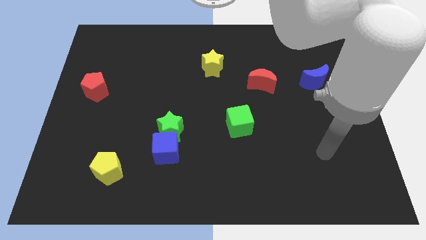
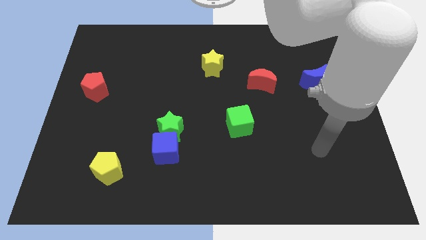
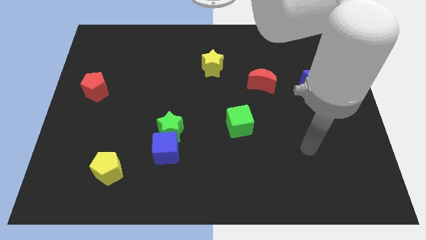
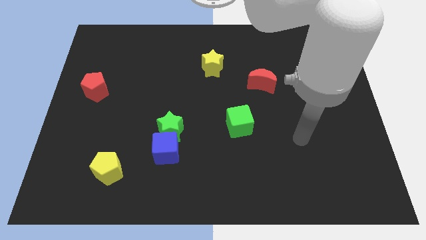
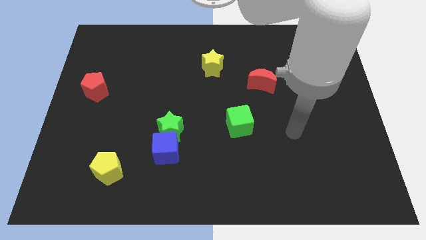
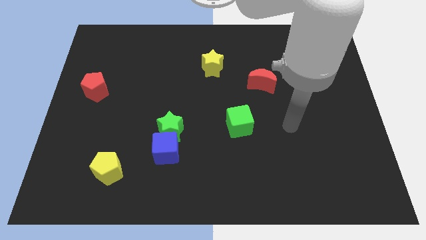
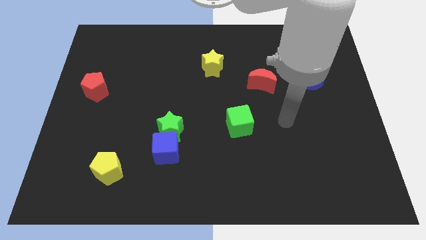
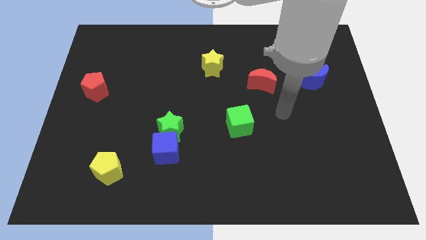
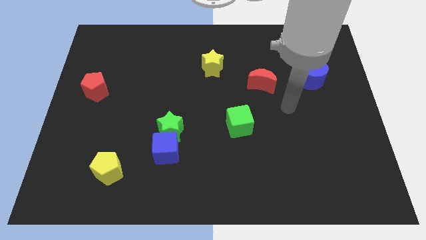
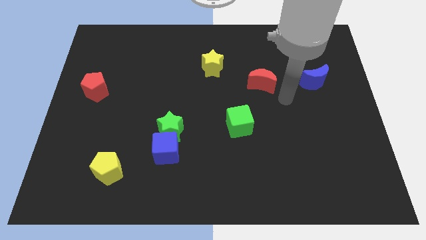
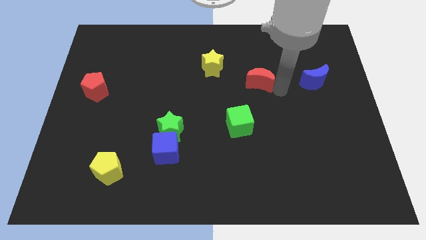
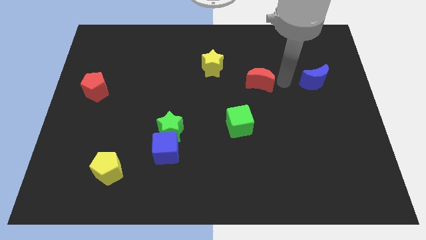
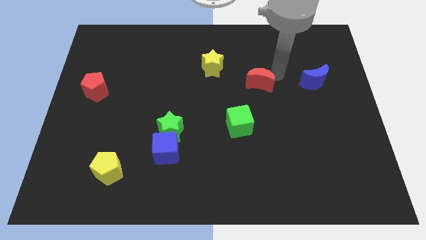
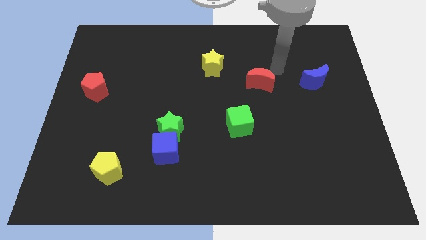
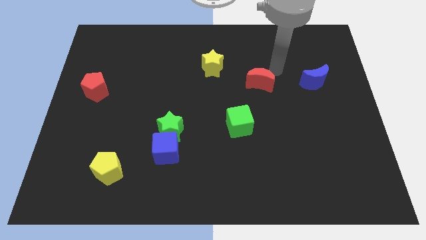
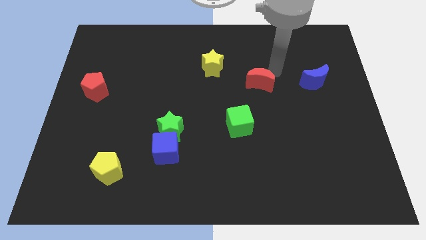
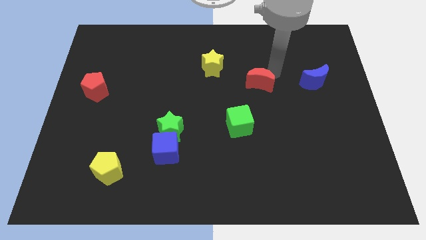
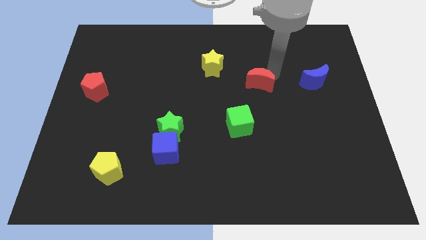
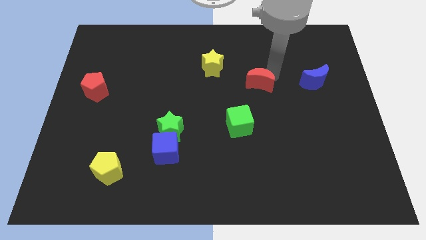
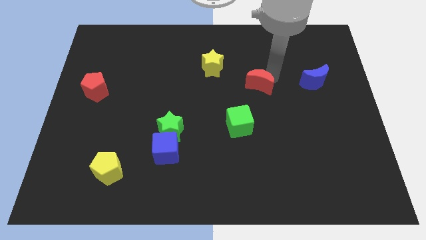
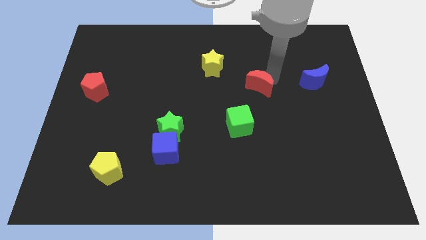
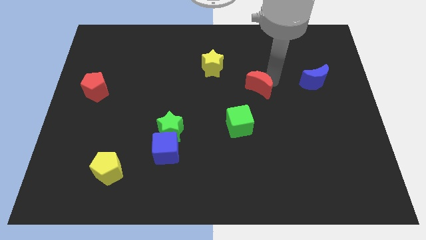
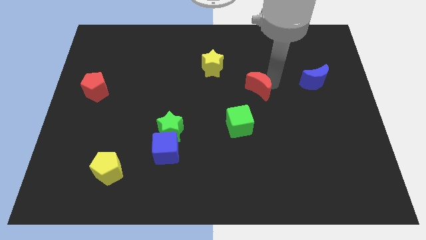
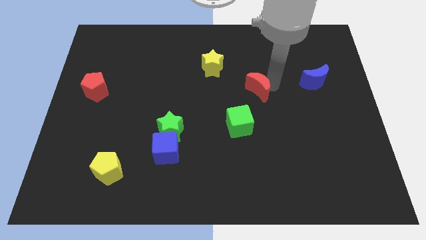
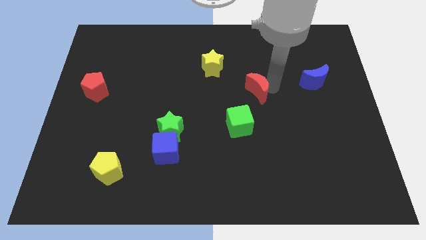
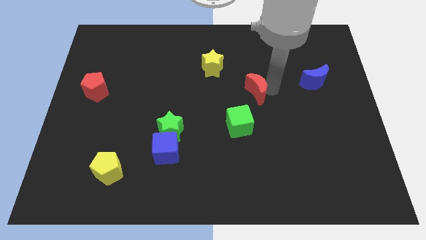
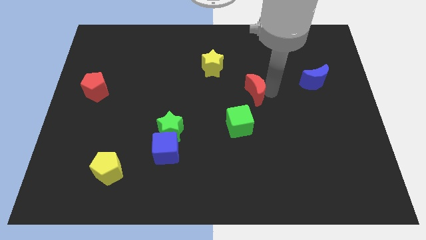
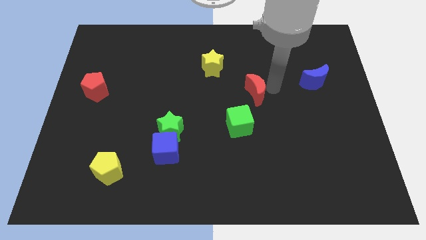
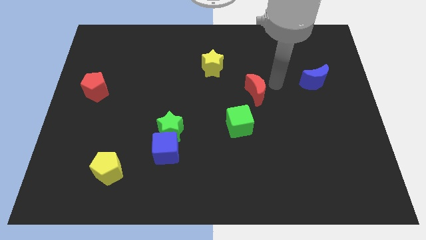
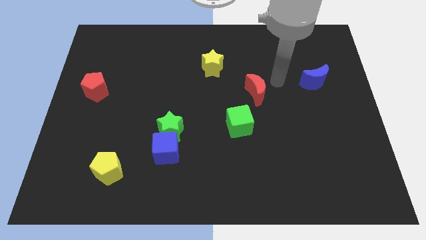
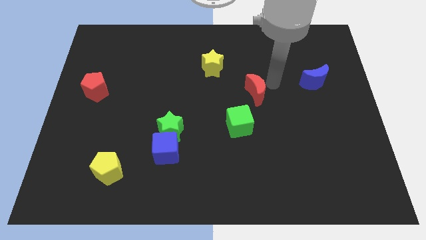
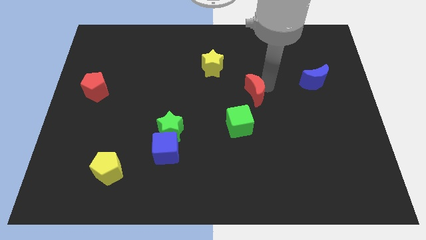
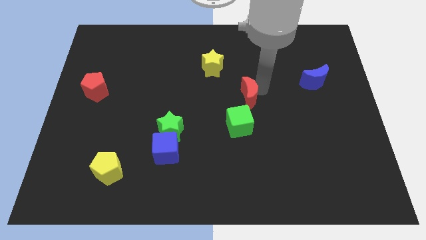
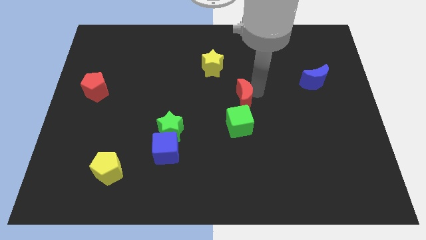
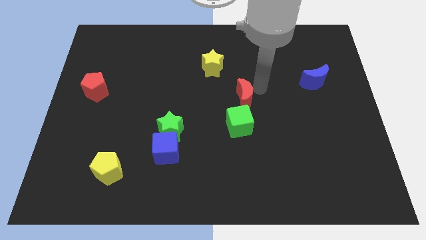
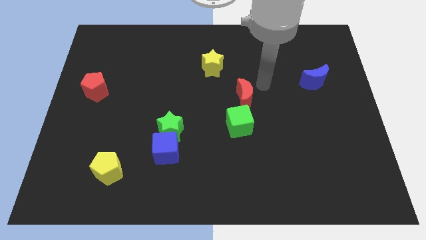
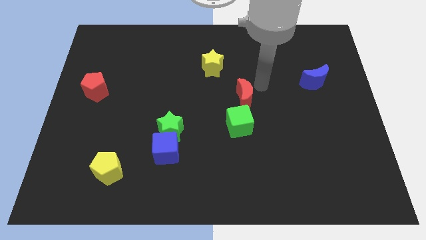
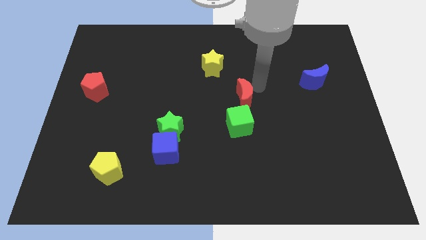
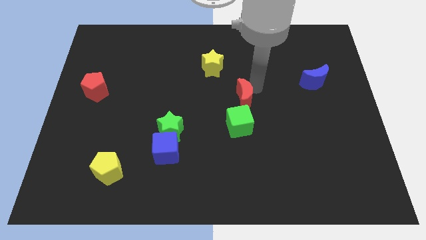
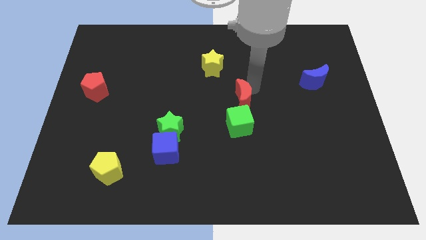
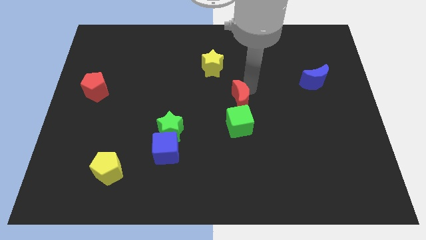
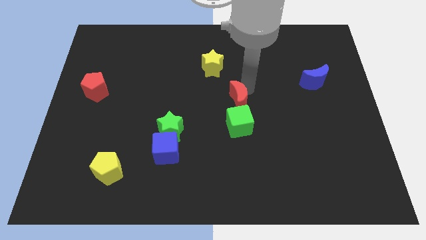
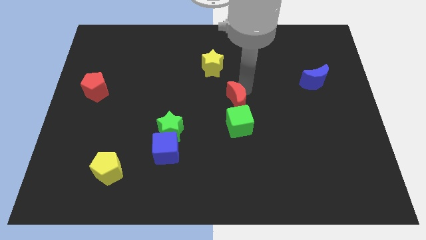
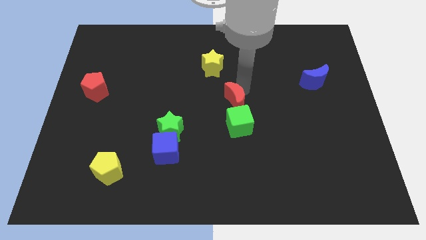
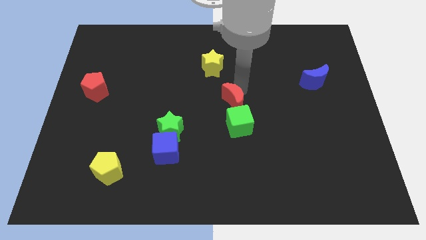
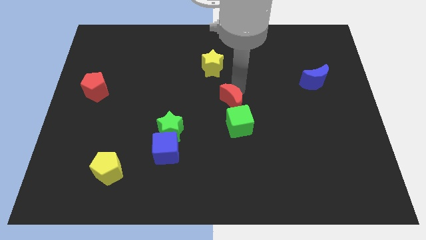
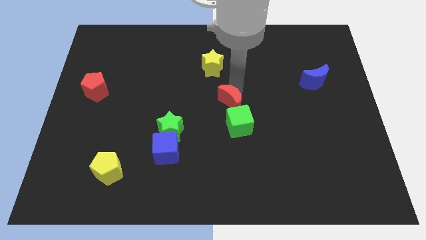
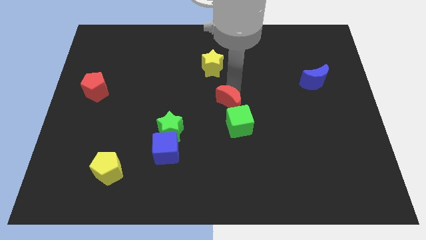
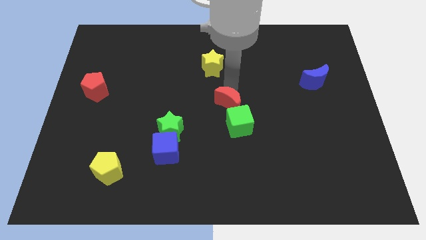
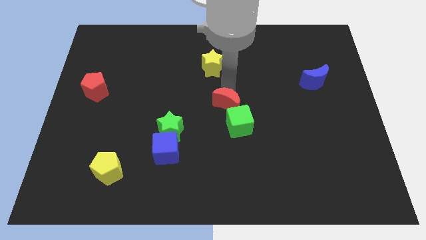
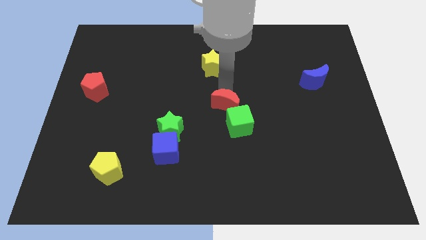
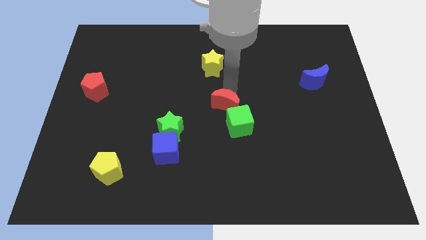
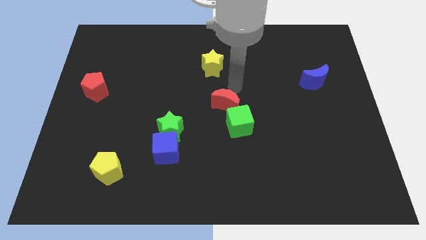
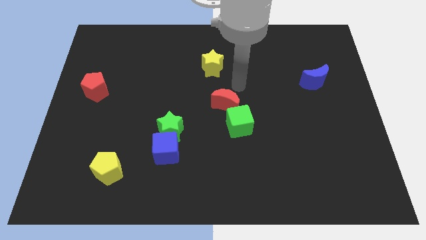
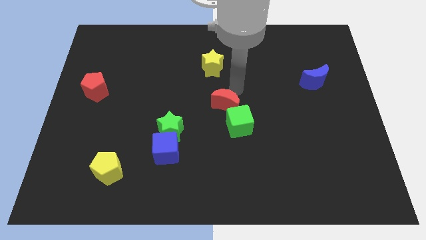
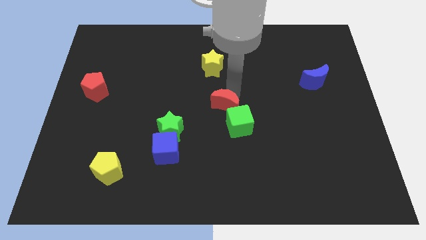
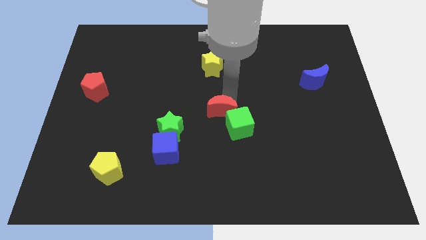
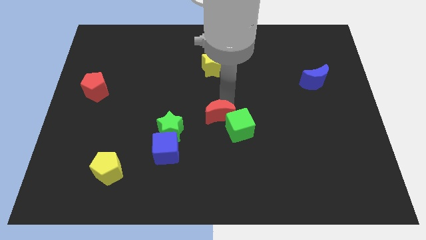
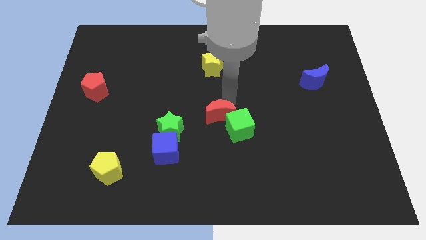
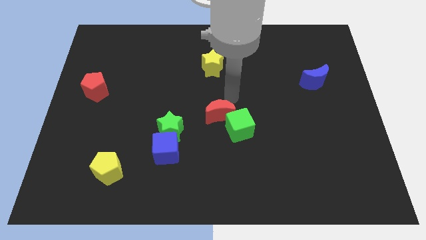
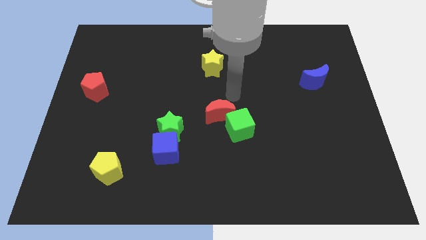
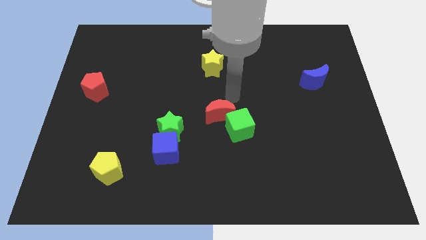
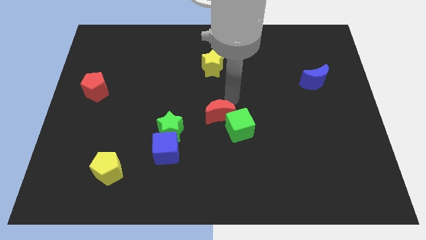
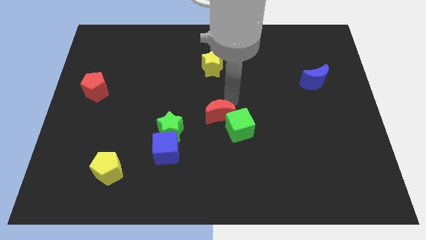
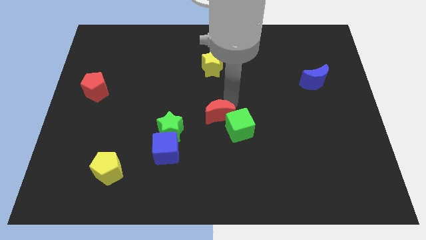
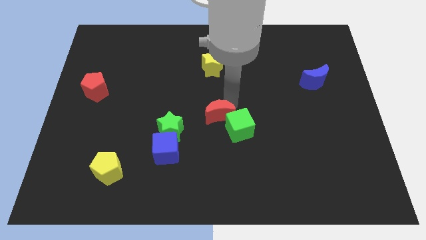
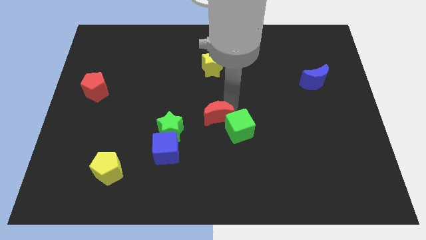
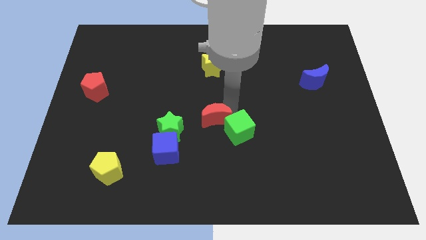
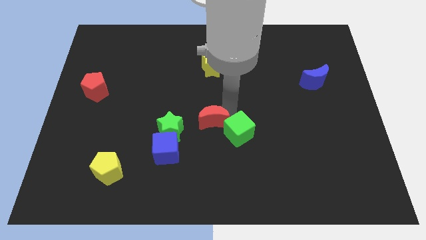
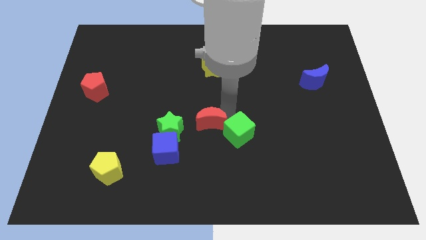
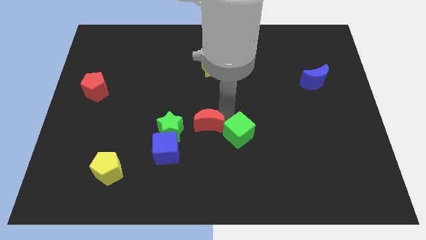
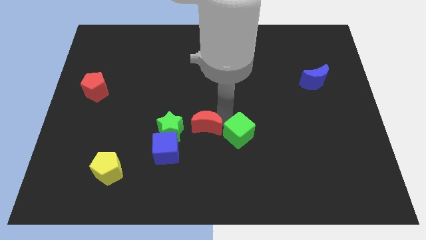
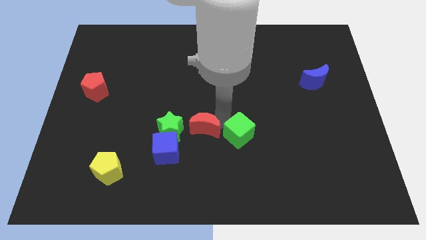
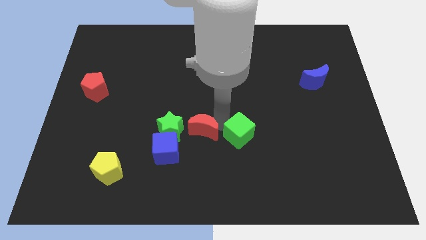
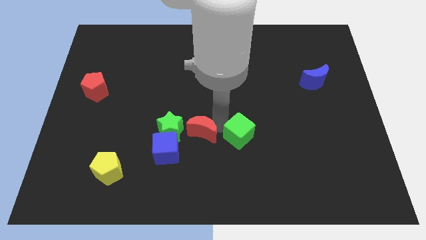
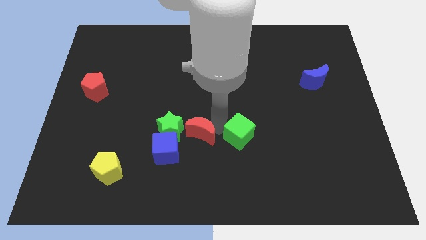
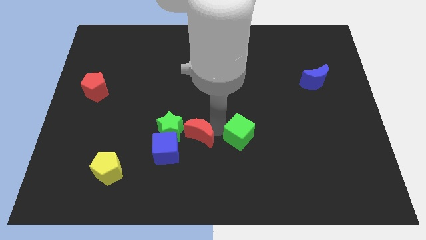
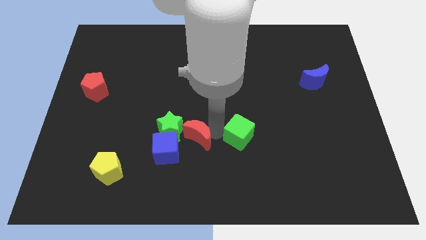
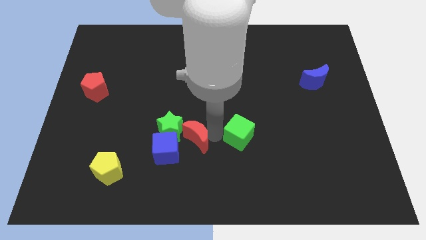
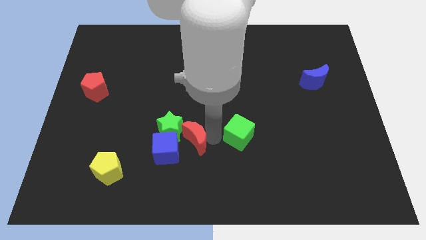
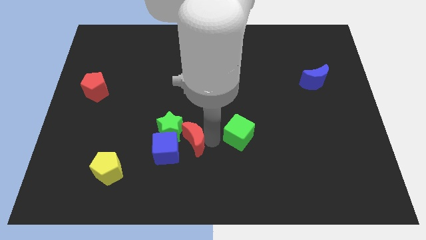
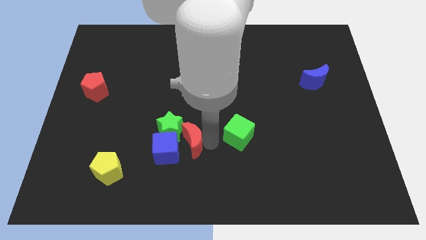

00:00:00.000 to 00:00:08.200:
slide the red moon to the blue cube
